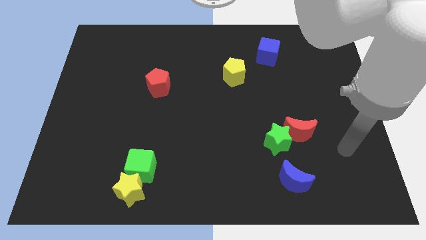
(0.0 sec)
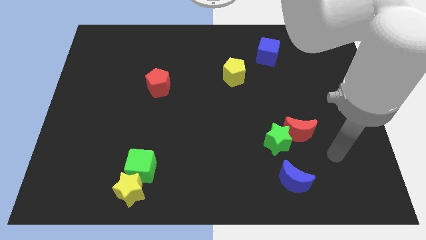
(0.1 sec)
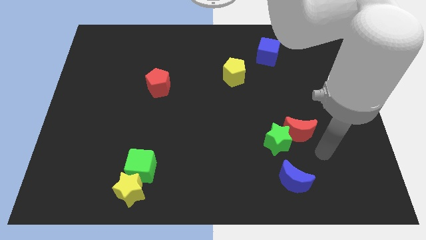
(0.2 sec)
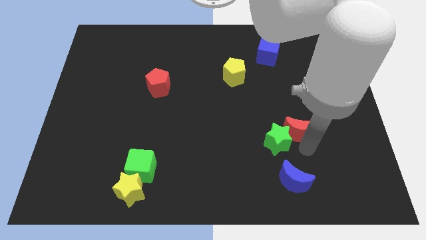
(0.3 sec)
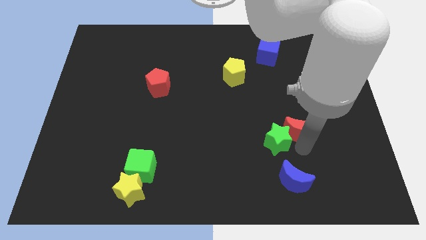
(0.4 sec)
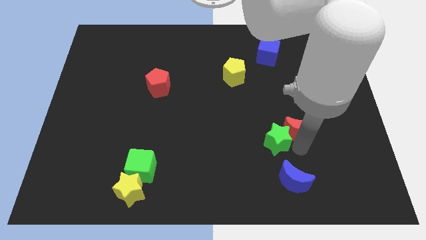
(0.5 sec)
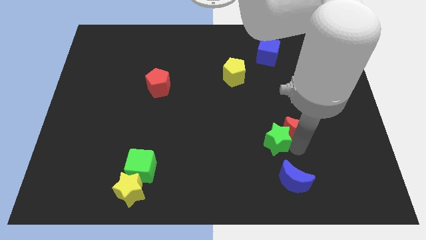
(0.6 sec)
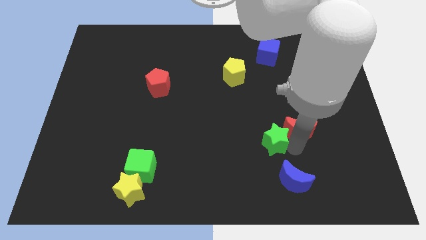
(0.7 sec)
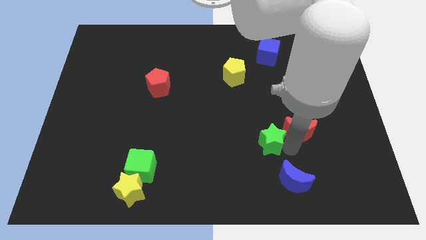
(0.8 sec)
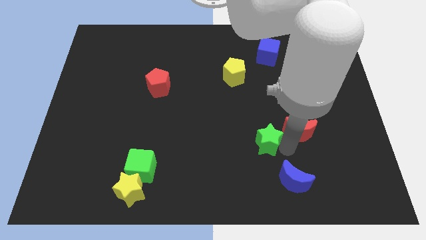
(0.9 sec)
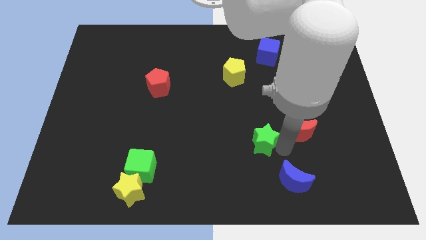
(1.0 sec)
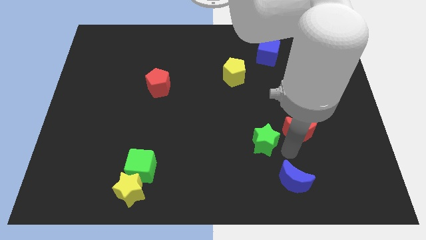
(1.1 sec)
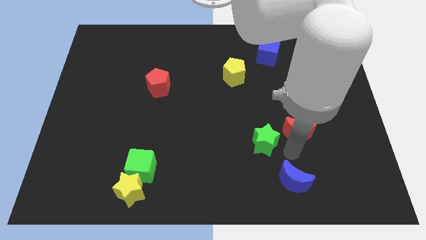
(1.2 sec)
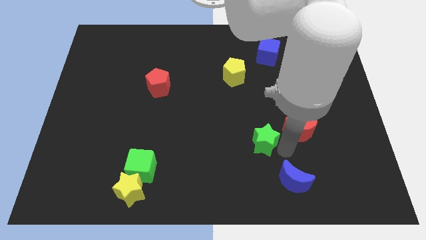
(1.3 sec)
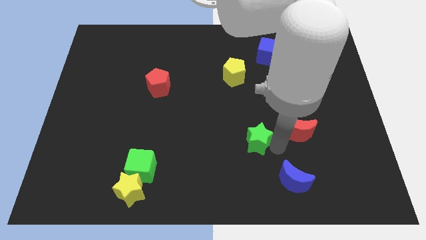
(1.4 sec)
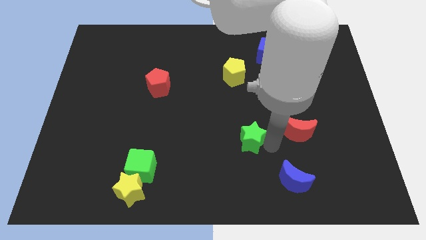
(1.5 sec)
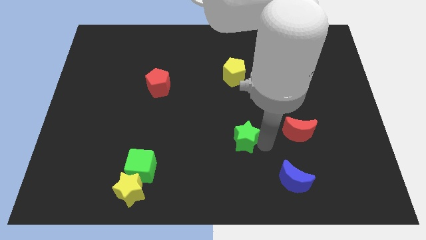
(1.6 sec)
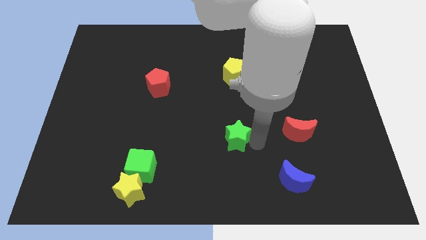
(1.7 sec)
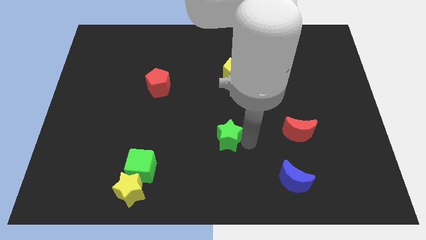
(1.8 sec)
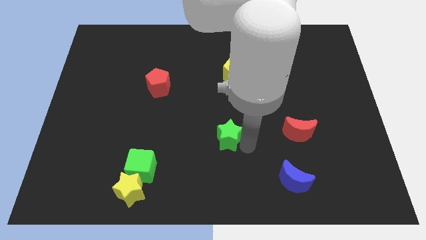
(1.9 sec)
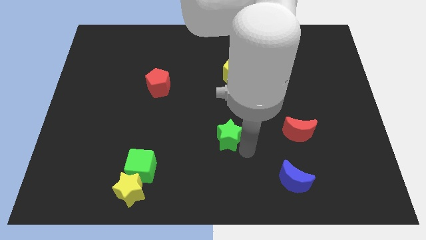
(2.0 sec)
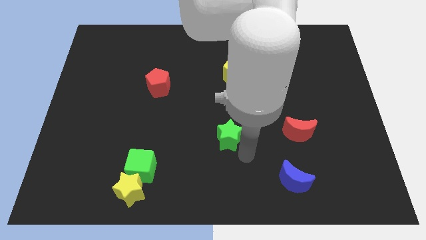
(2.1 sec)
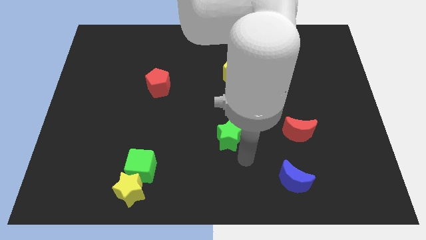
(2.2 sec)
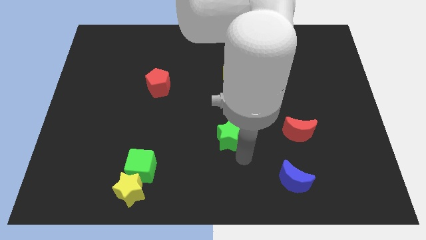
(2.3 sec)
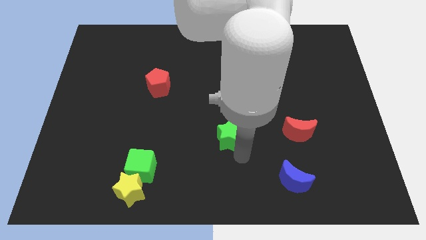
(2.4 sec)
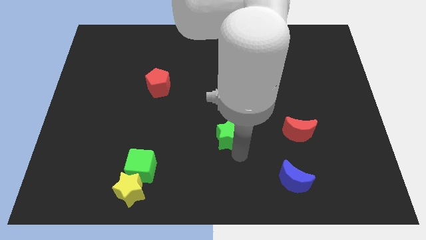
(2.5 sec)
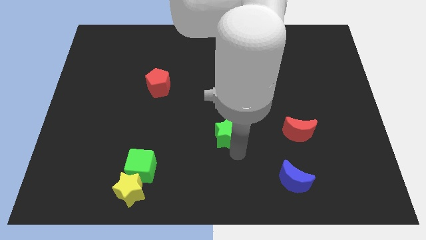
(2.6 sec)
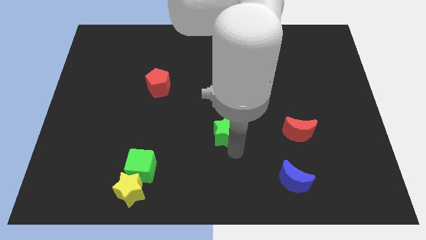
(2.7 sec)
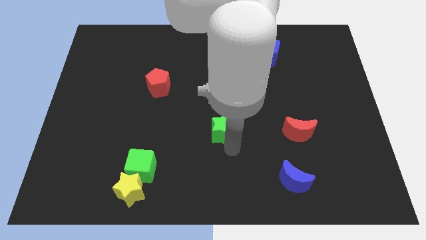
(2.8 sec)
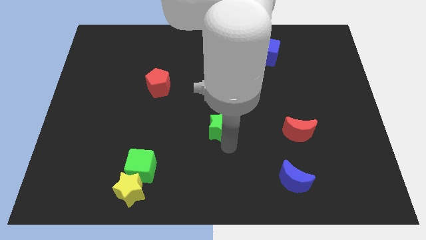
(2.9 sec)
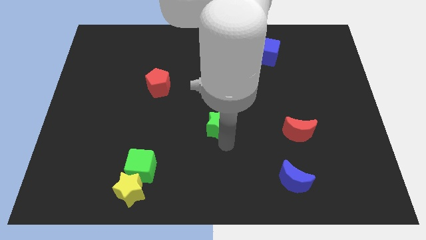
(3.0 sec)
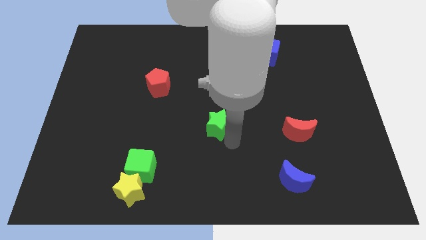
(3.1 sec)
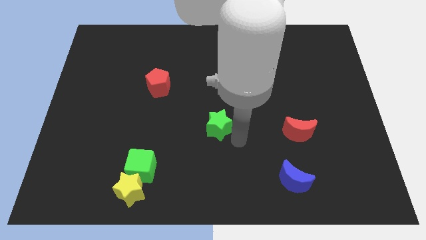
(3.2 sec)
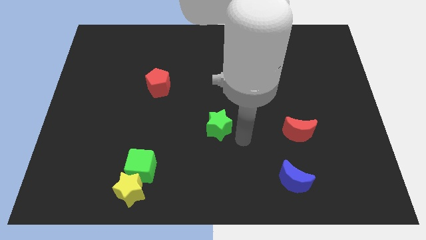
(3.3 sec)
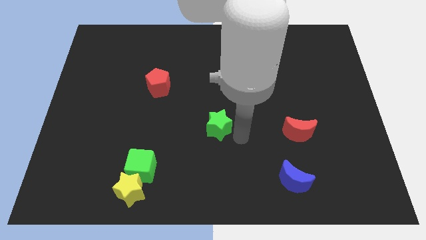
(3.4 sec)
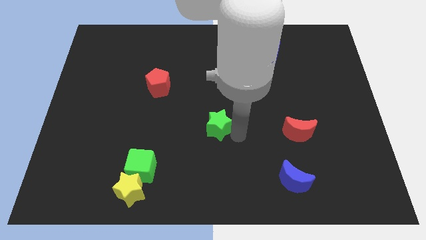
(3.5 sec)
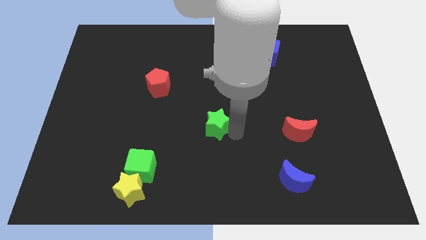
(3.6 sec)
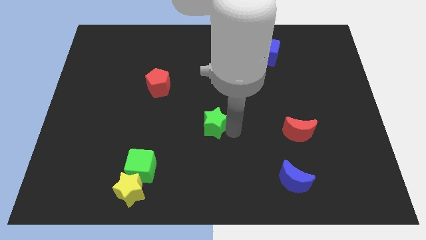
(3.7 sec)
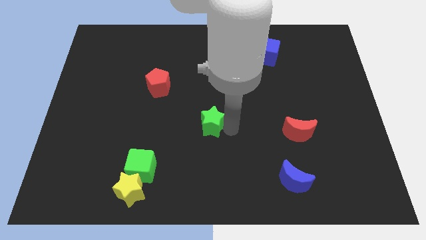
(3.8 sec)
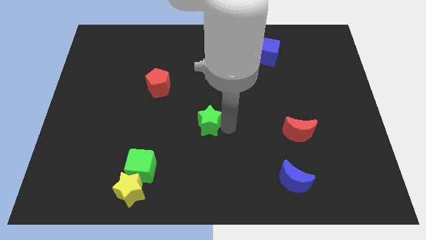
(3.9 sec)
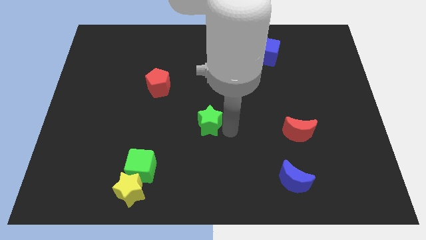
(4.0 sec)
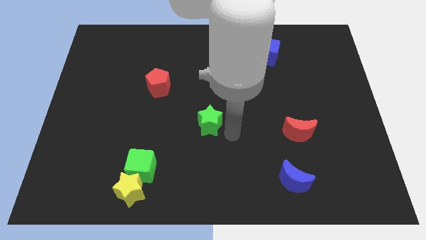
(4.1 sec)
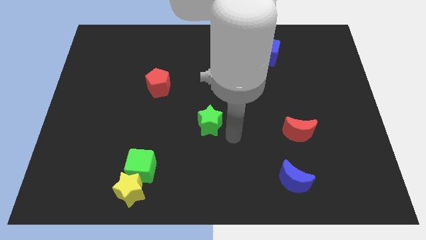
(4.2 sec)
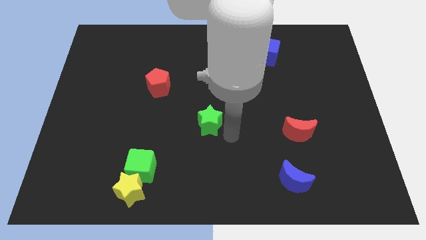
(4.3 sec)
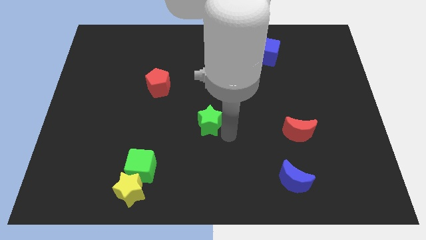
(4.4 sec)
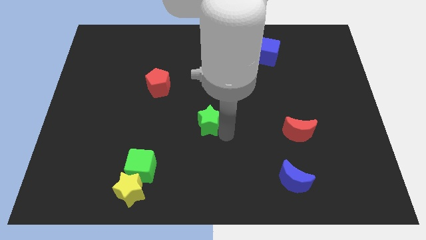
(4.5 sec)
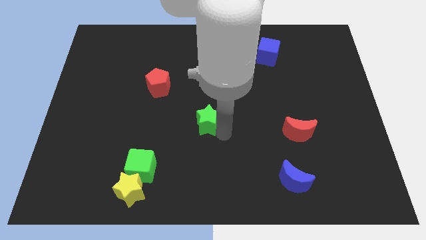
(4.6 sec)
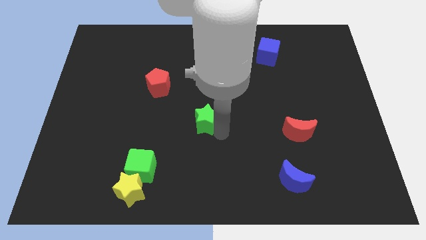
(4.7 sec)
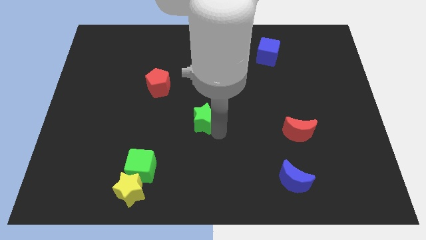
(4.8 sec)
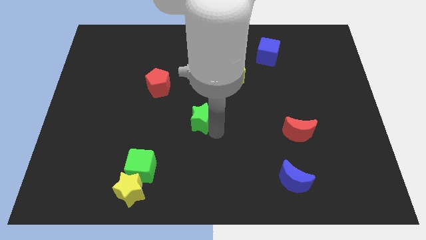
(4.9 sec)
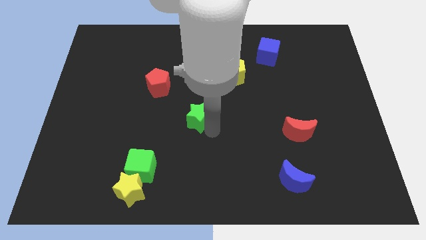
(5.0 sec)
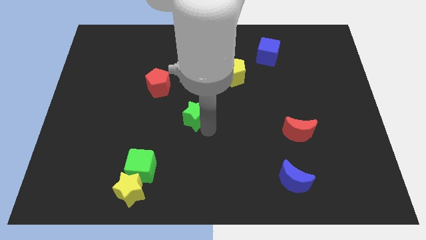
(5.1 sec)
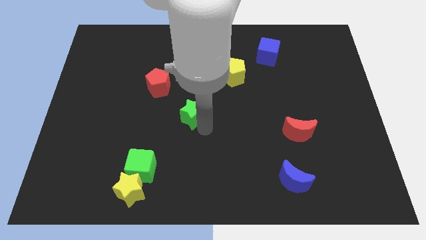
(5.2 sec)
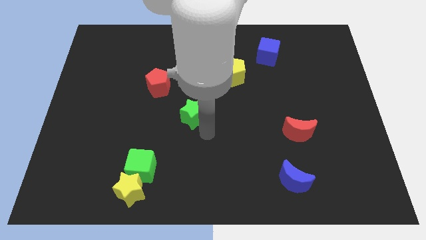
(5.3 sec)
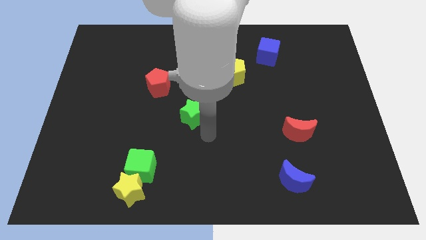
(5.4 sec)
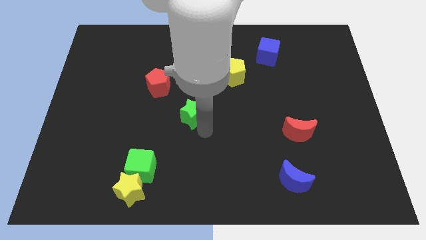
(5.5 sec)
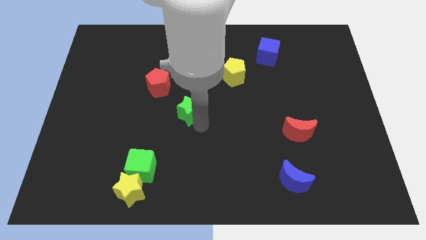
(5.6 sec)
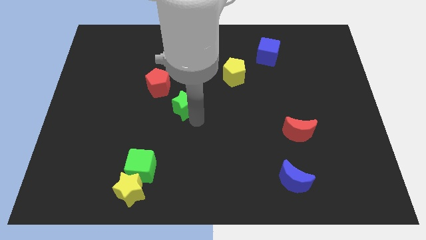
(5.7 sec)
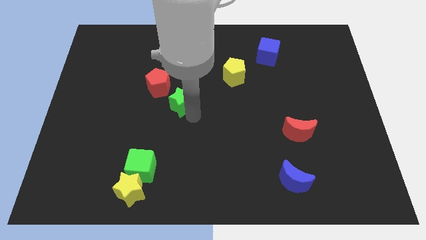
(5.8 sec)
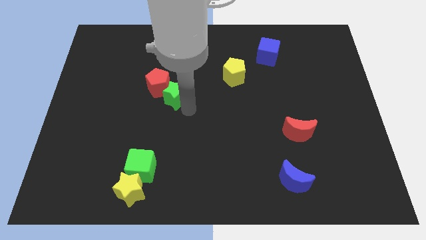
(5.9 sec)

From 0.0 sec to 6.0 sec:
move the green star to the red pentagon

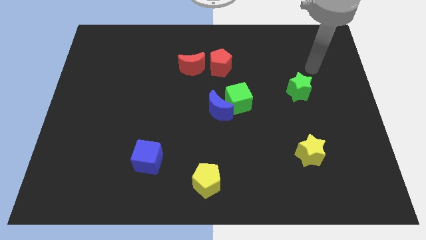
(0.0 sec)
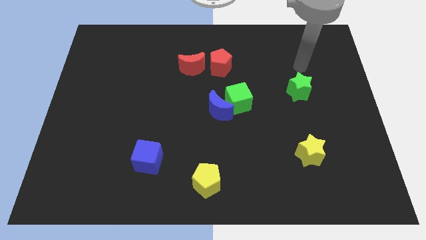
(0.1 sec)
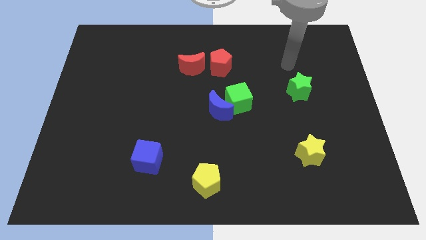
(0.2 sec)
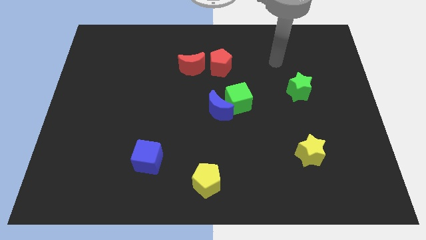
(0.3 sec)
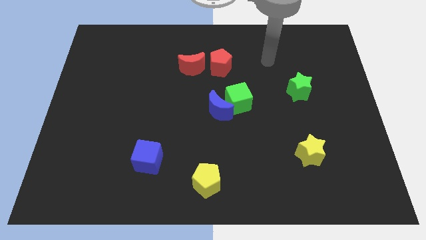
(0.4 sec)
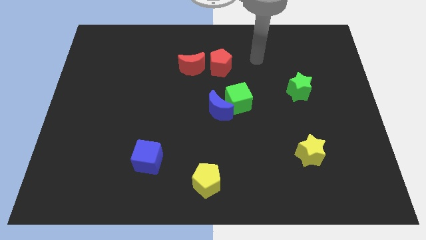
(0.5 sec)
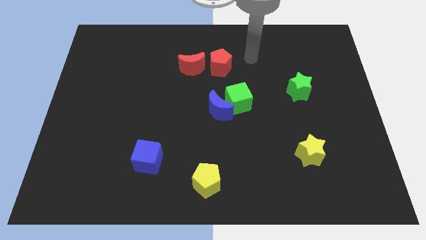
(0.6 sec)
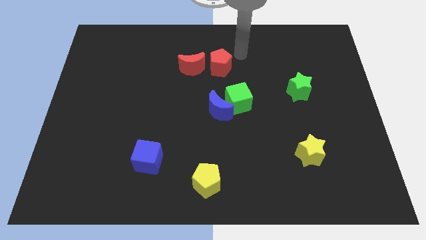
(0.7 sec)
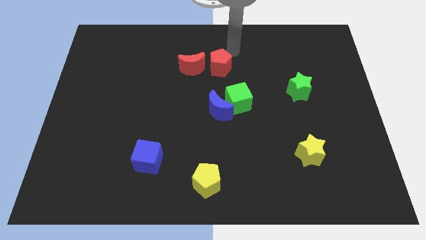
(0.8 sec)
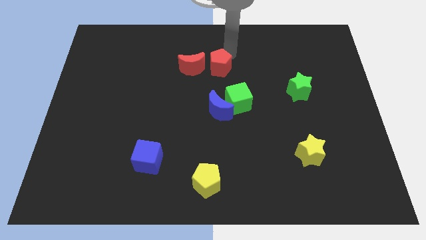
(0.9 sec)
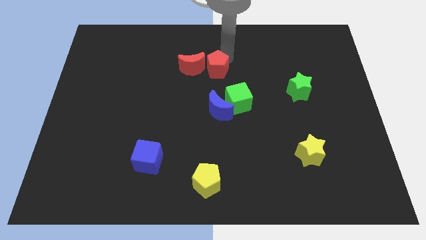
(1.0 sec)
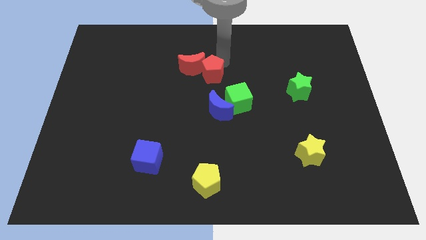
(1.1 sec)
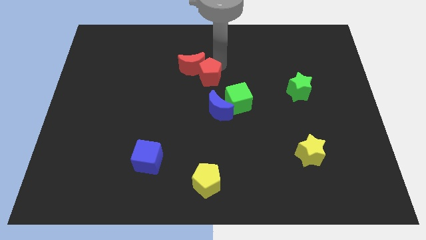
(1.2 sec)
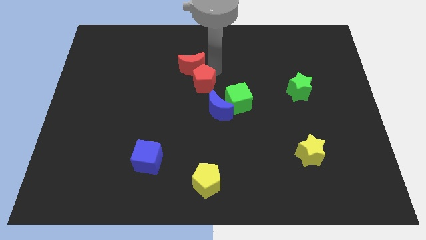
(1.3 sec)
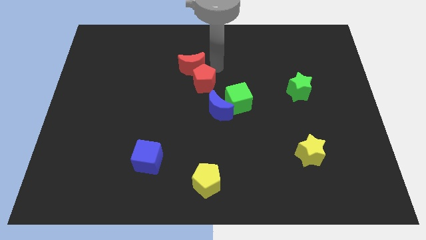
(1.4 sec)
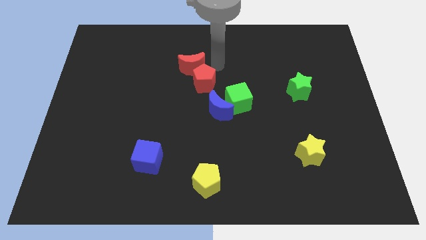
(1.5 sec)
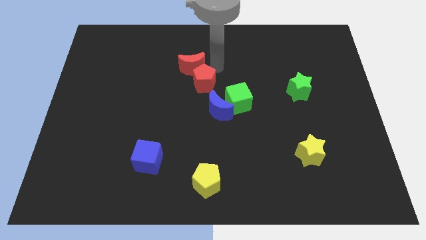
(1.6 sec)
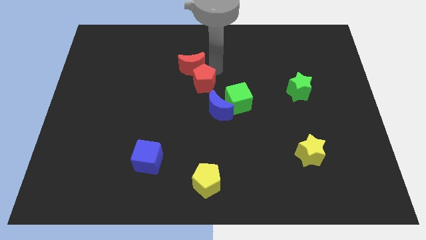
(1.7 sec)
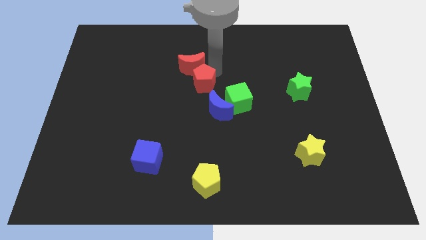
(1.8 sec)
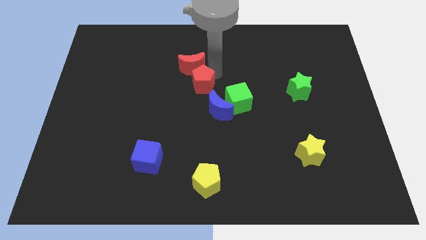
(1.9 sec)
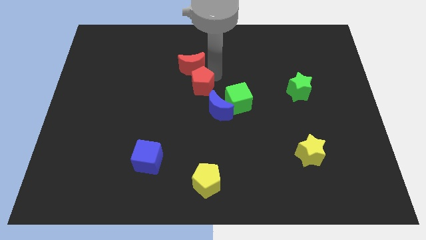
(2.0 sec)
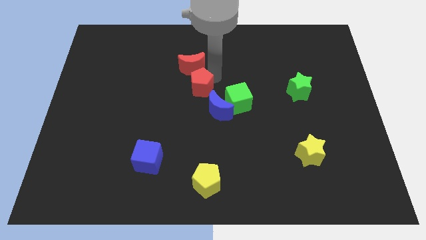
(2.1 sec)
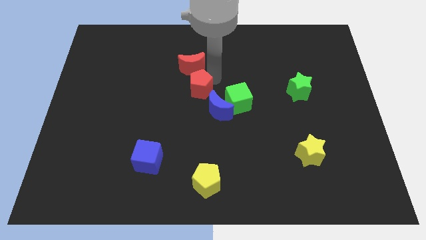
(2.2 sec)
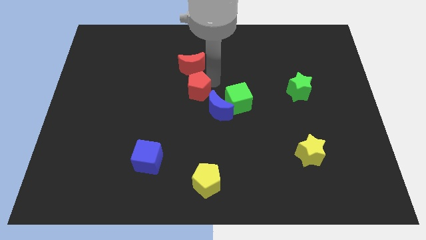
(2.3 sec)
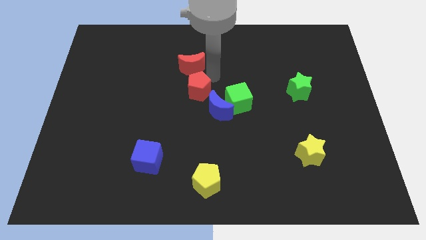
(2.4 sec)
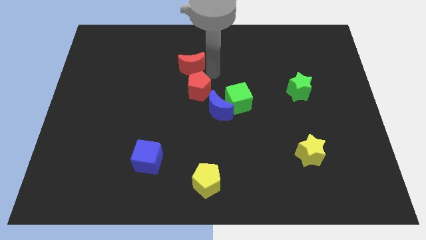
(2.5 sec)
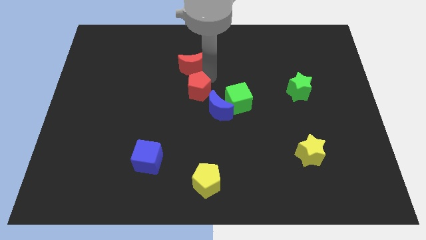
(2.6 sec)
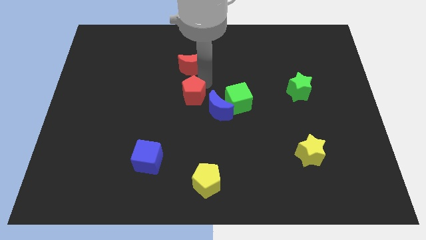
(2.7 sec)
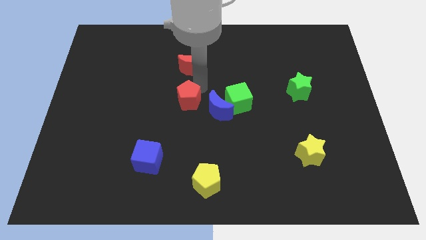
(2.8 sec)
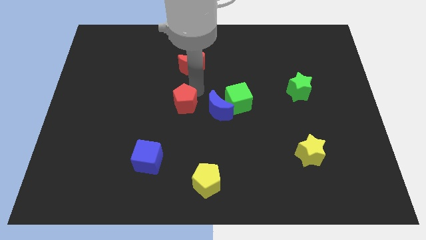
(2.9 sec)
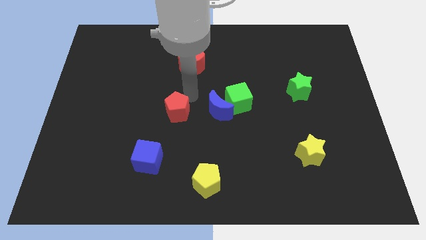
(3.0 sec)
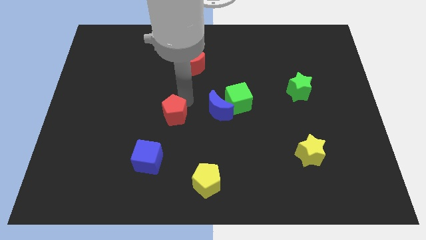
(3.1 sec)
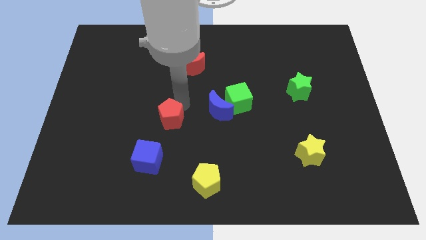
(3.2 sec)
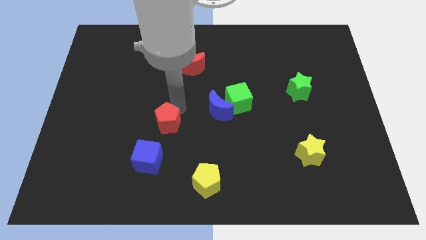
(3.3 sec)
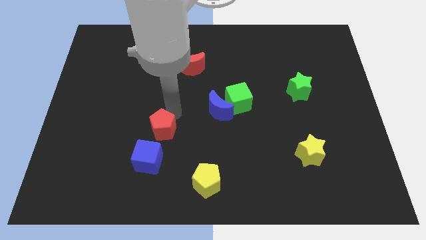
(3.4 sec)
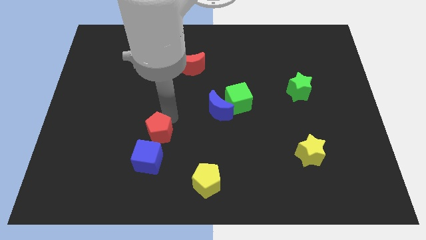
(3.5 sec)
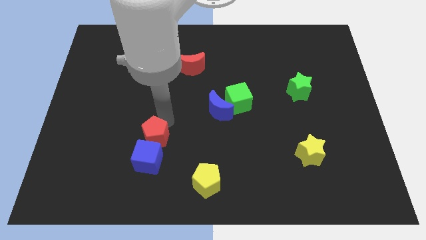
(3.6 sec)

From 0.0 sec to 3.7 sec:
push the red pentagon close to the blue cube
